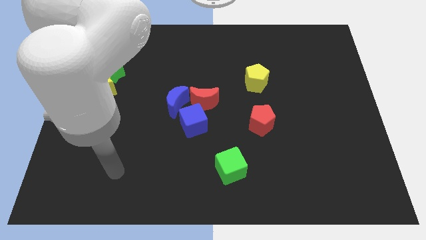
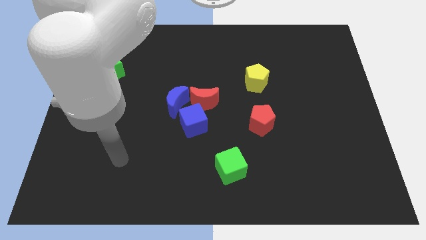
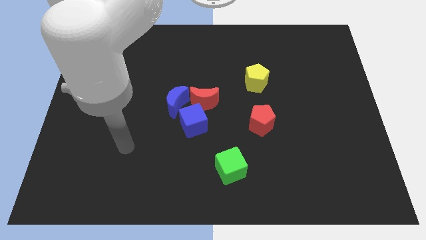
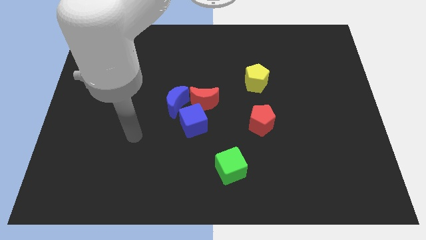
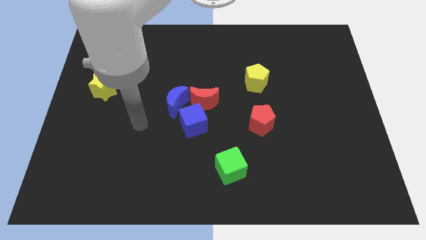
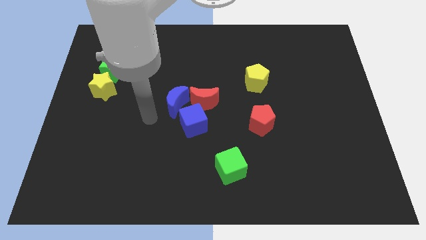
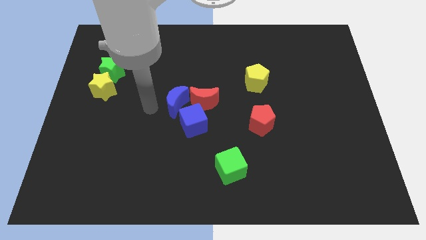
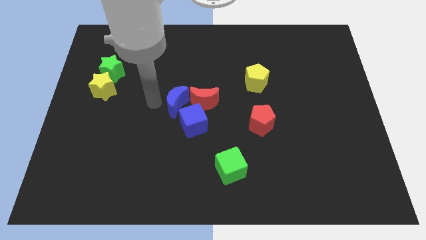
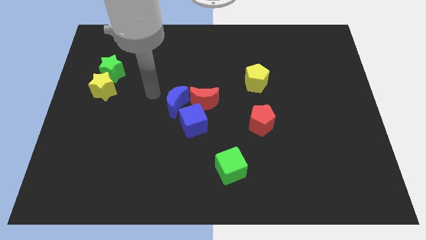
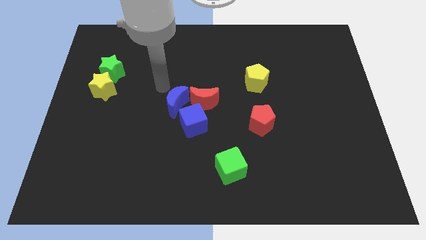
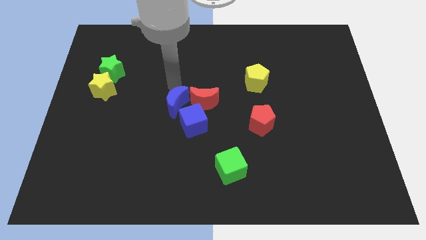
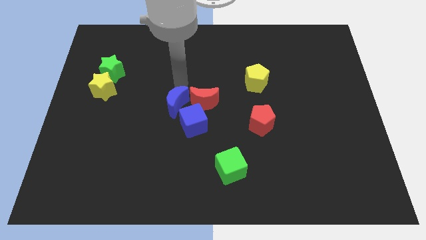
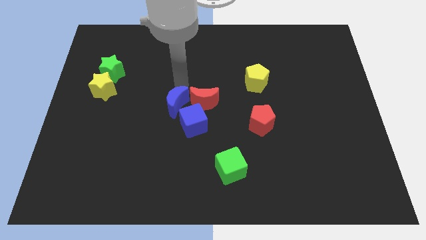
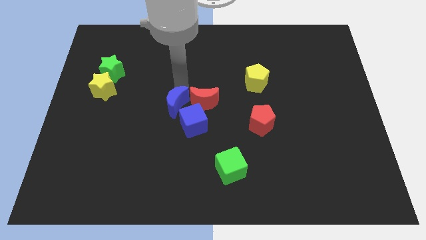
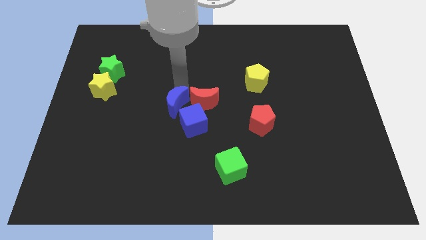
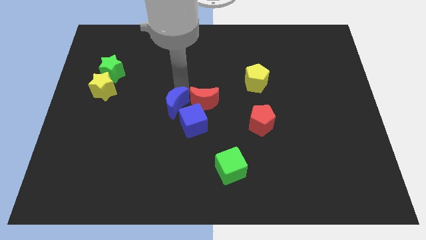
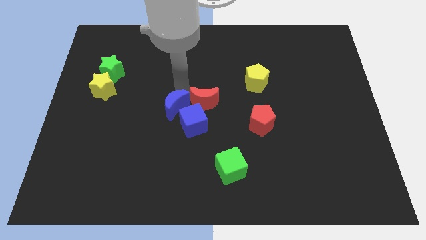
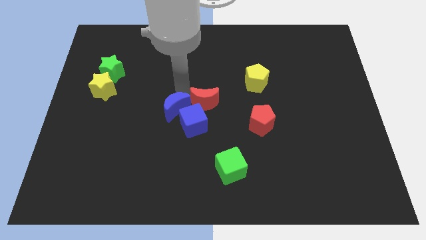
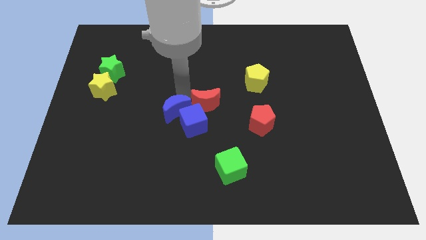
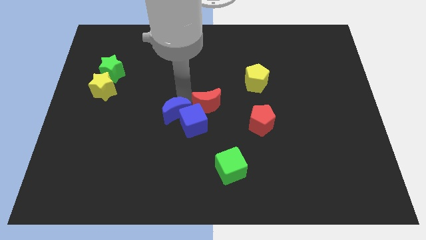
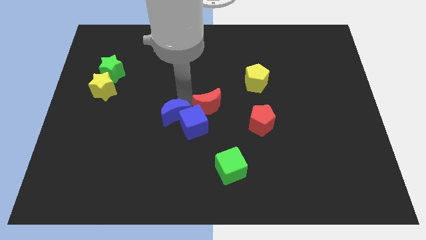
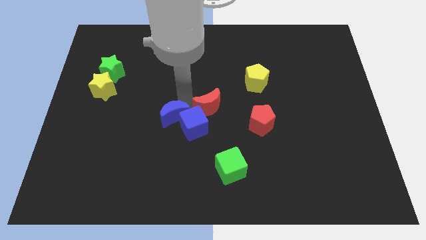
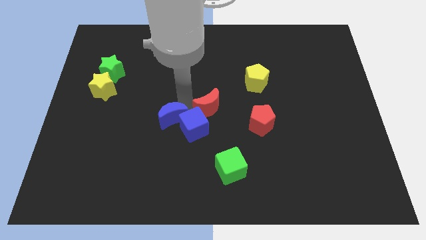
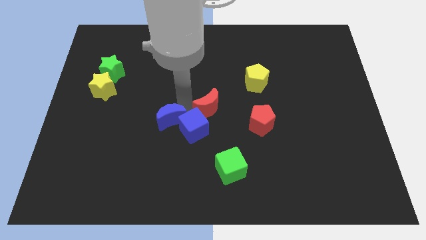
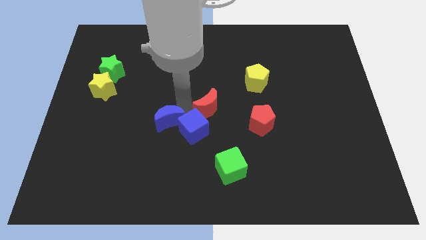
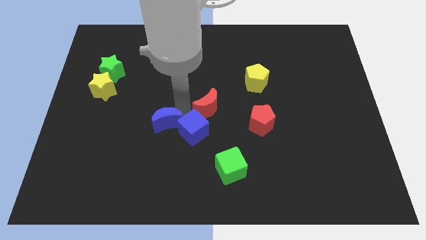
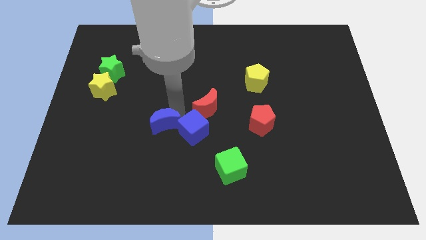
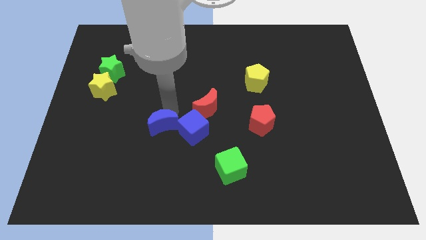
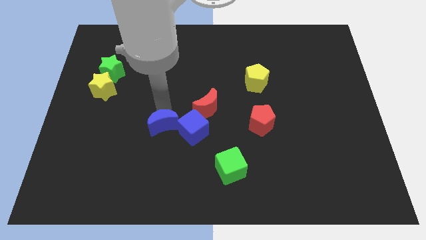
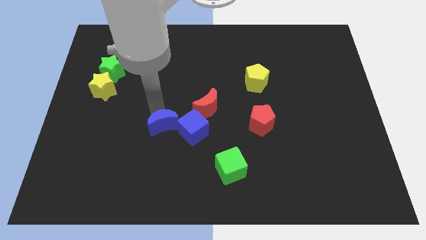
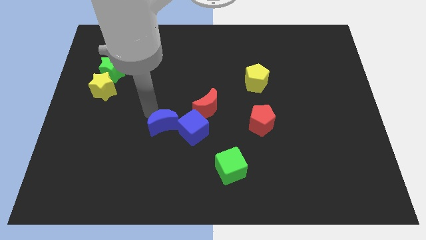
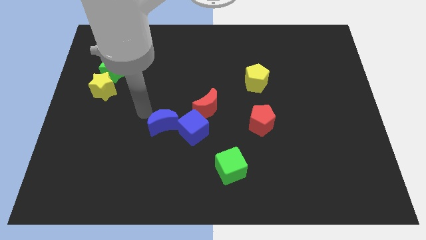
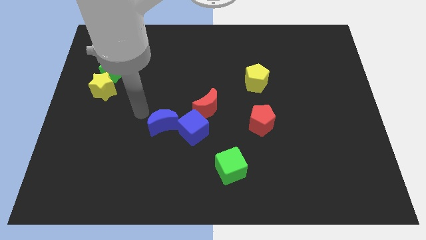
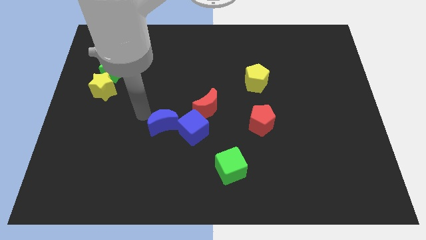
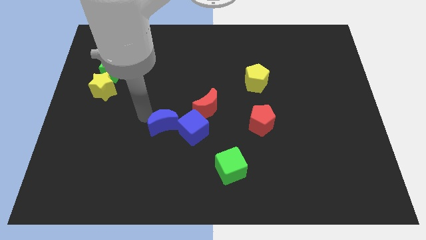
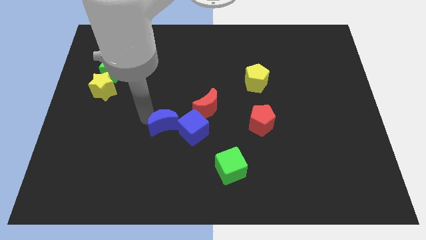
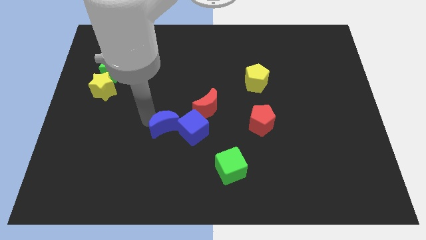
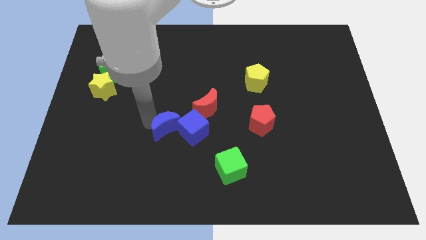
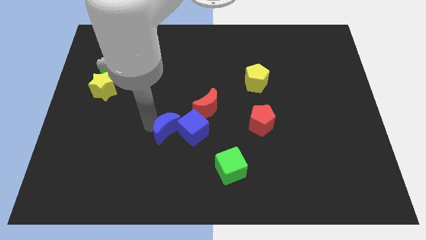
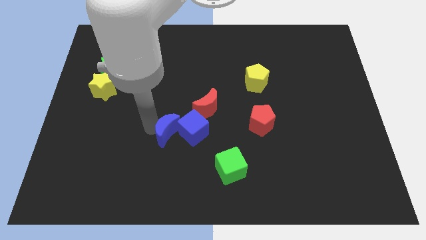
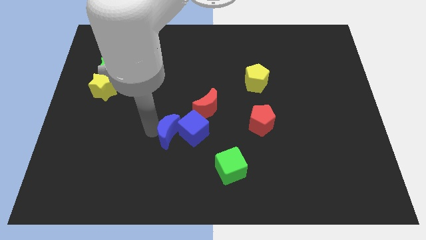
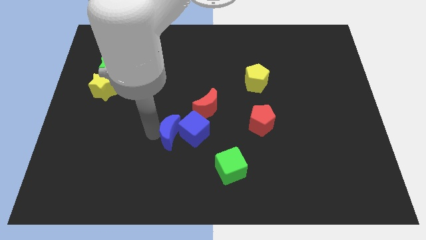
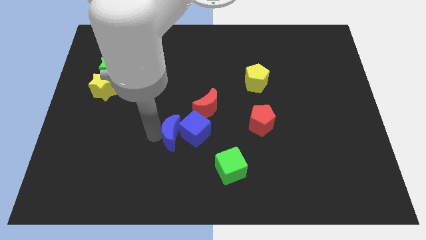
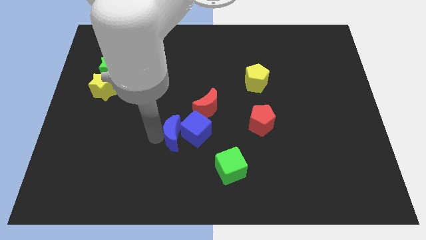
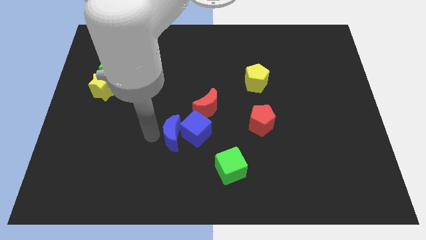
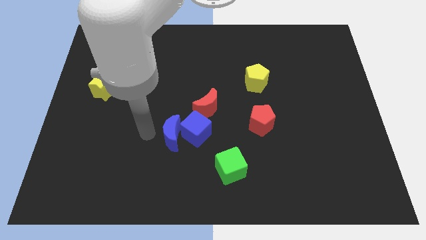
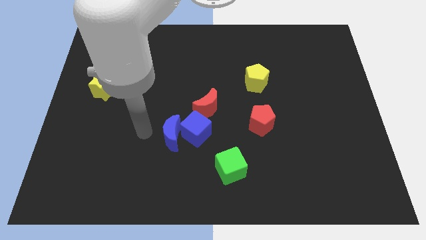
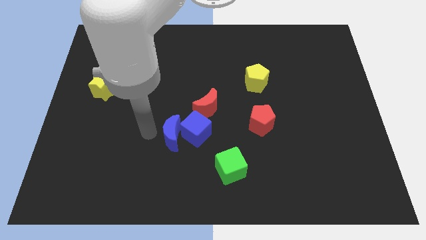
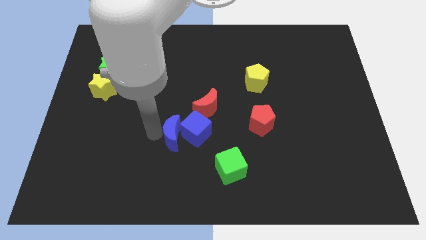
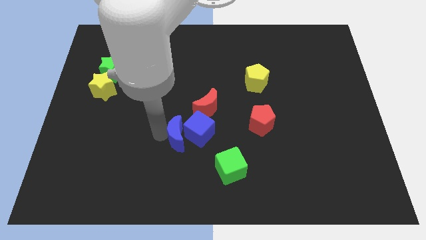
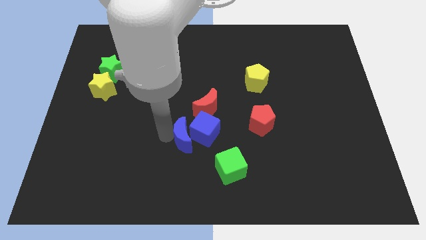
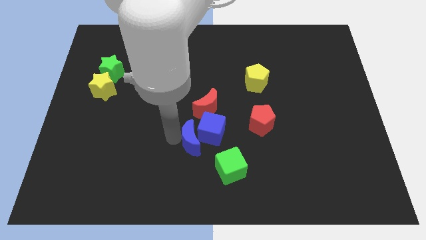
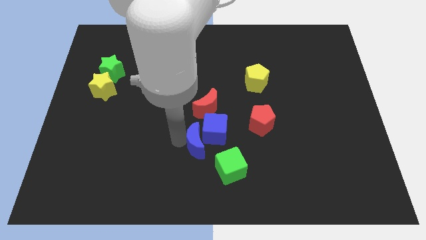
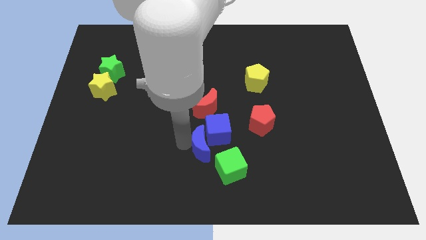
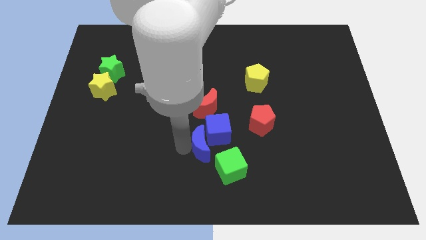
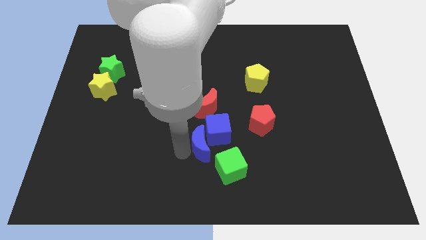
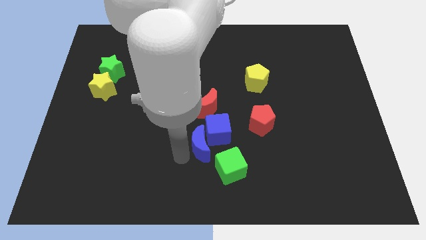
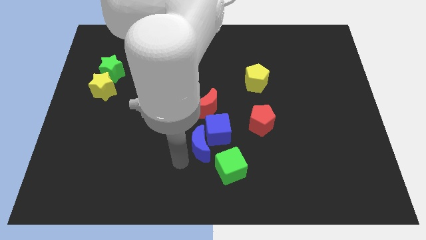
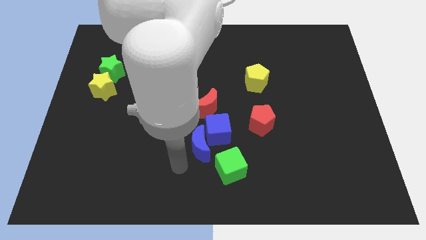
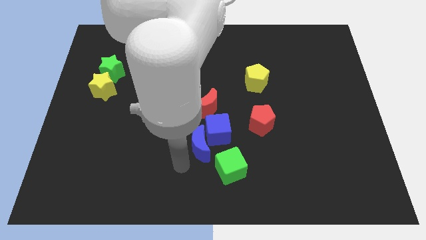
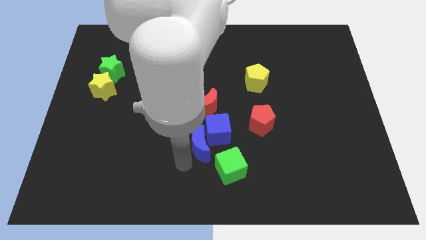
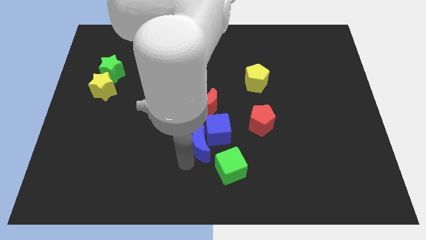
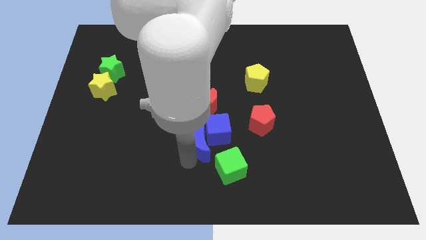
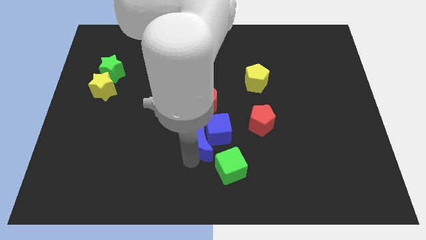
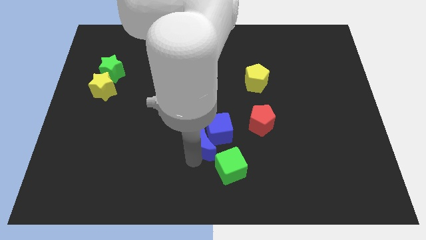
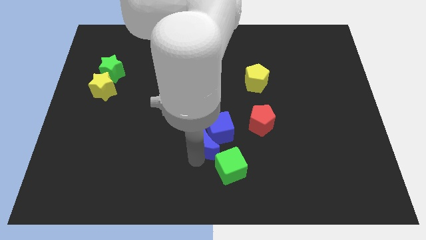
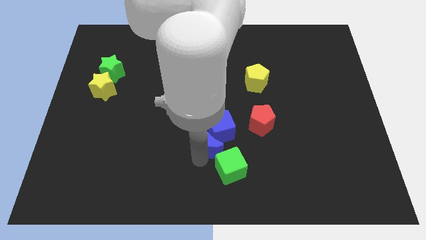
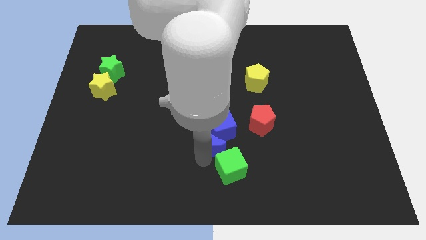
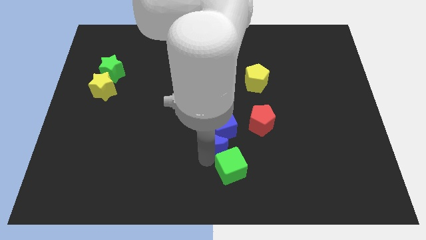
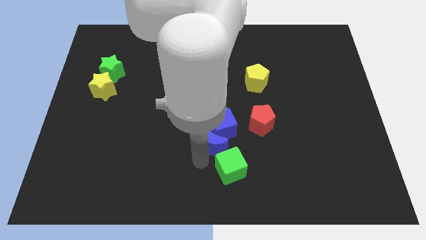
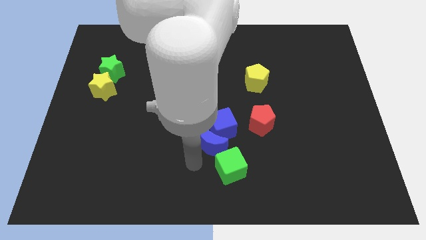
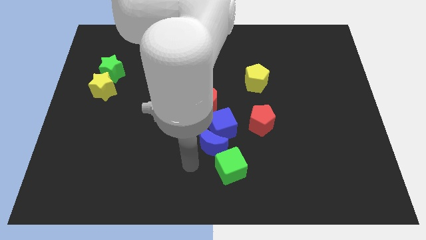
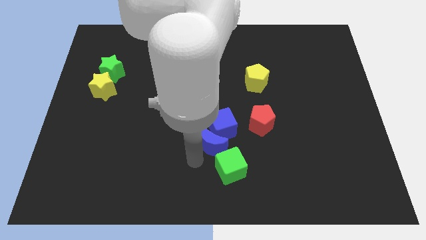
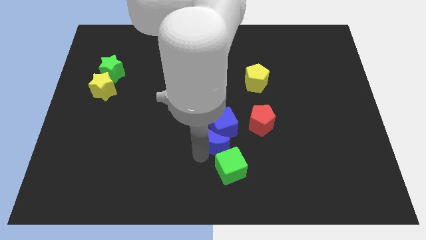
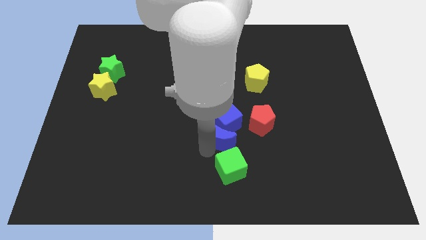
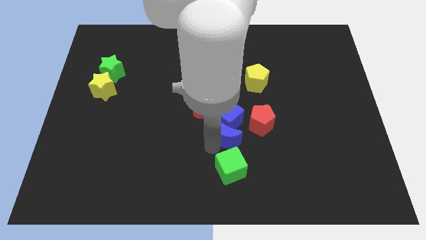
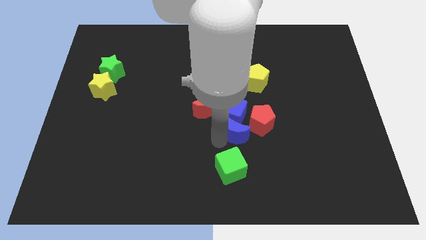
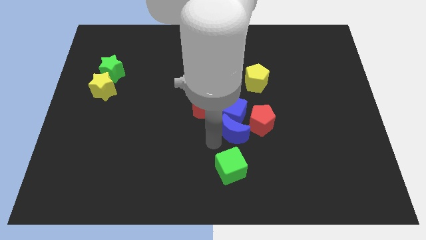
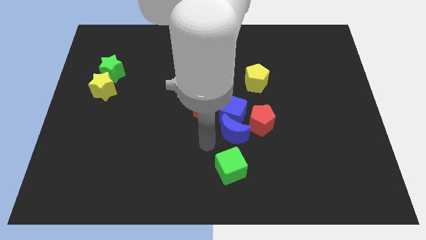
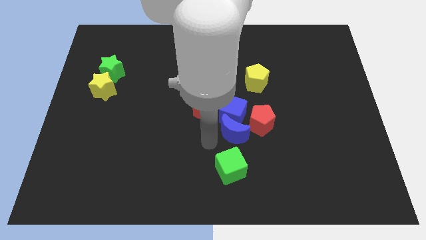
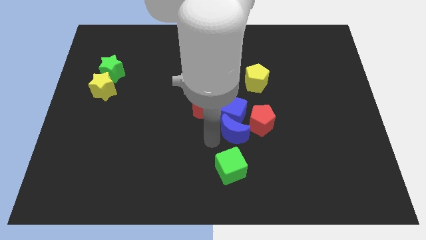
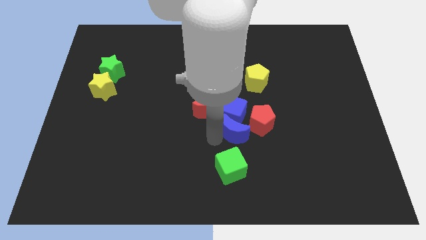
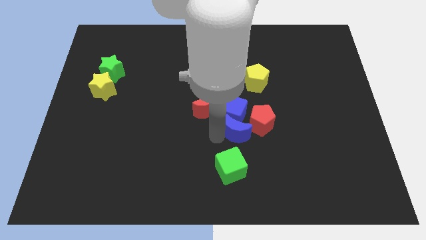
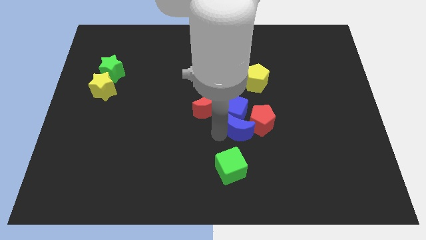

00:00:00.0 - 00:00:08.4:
put the blue moon next to the red pentagon
